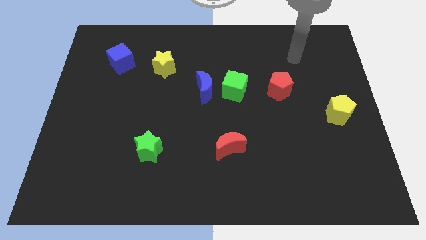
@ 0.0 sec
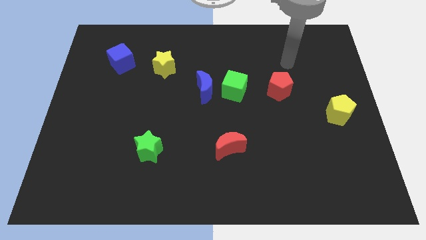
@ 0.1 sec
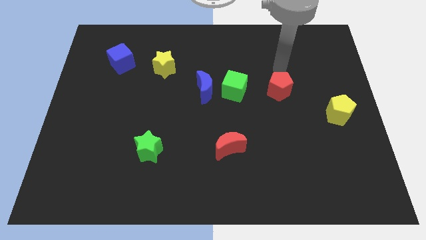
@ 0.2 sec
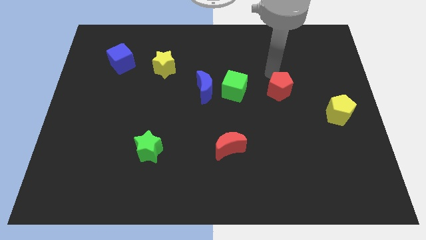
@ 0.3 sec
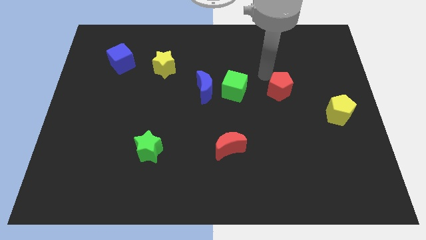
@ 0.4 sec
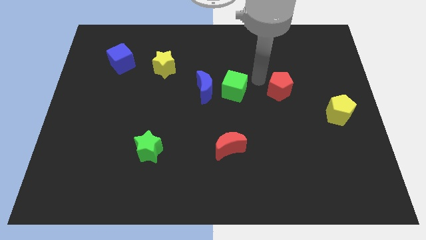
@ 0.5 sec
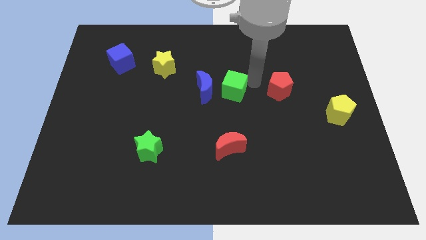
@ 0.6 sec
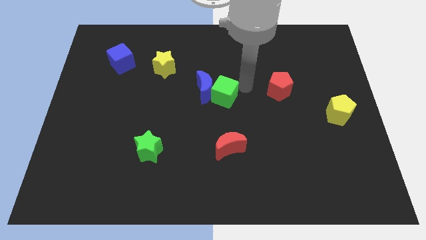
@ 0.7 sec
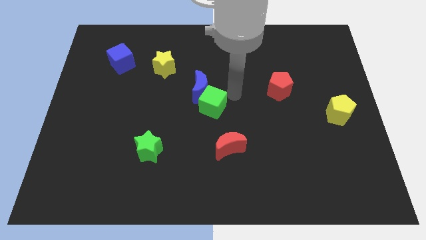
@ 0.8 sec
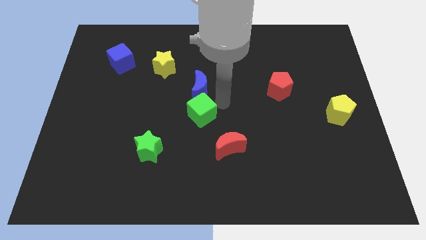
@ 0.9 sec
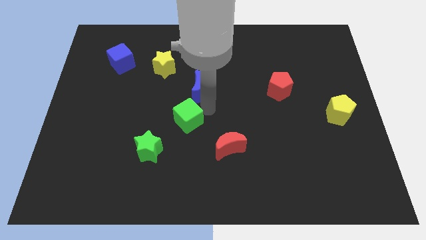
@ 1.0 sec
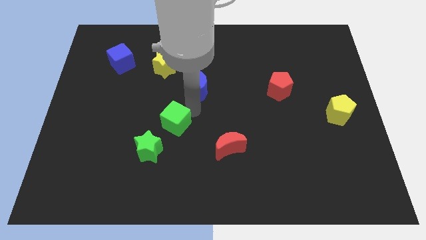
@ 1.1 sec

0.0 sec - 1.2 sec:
pull the blue moon apart from the green cube

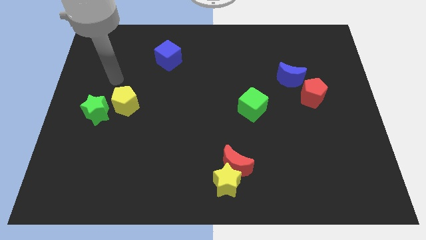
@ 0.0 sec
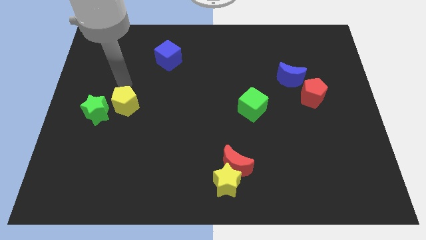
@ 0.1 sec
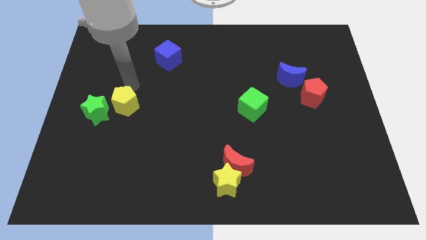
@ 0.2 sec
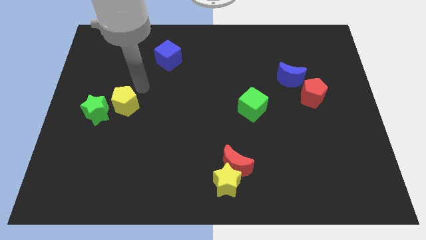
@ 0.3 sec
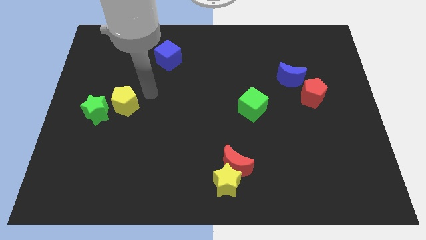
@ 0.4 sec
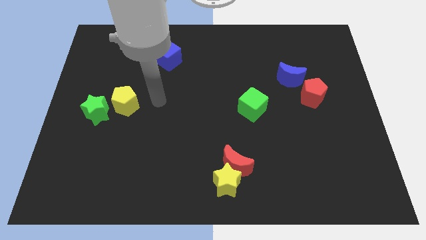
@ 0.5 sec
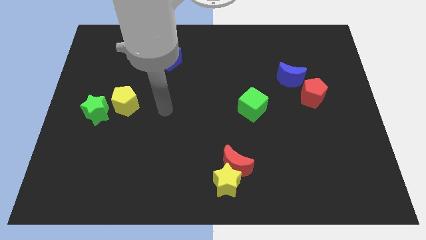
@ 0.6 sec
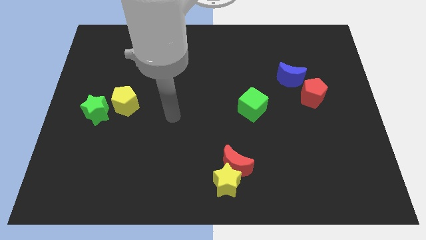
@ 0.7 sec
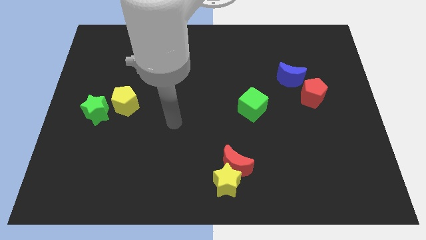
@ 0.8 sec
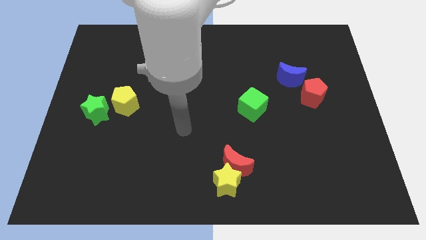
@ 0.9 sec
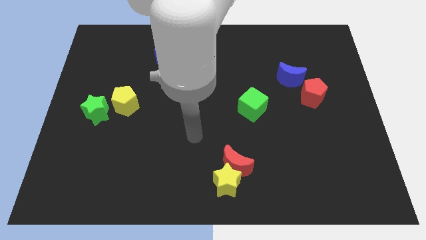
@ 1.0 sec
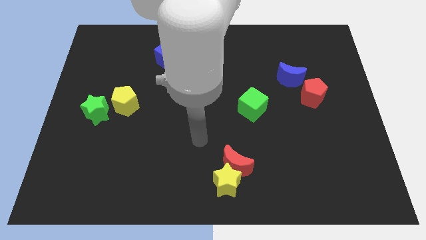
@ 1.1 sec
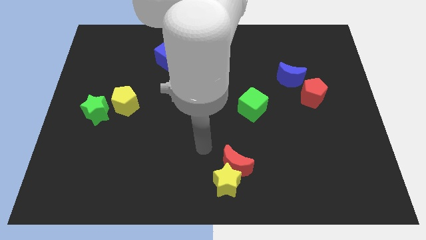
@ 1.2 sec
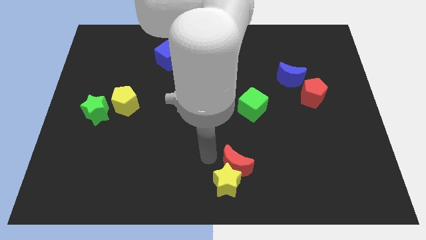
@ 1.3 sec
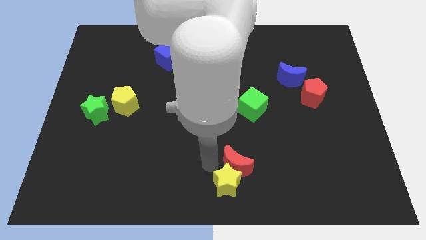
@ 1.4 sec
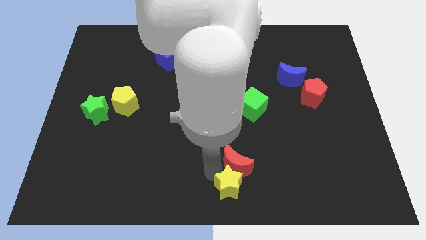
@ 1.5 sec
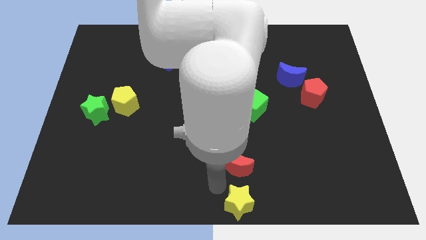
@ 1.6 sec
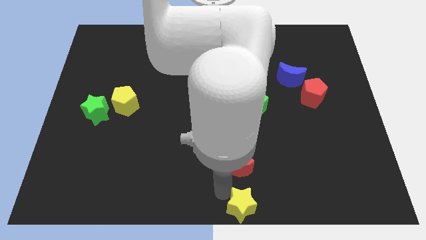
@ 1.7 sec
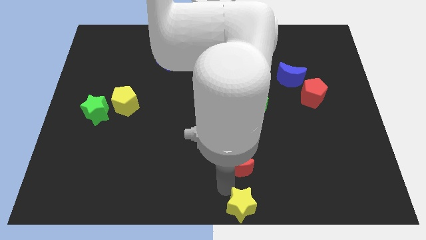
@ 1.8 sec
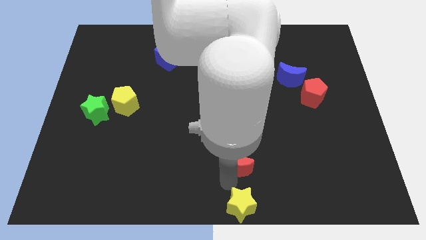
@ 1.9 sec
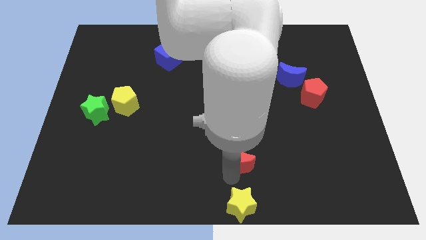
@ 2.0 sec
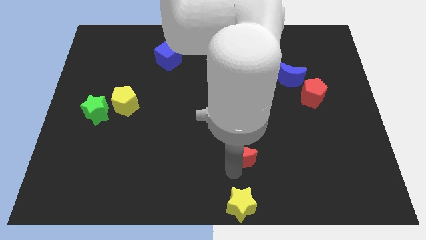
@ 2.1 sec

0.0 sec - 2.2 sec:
separate the red moon from the yellow star

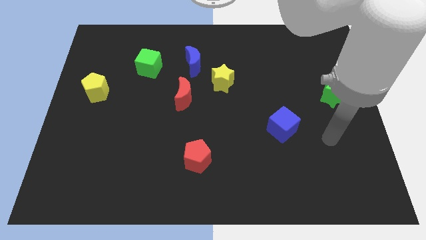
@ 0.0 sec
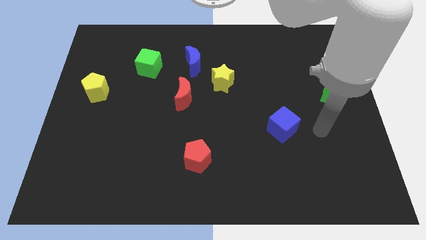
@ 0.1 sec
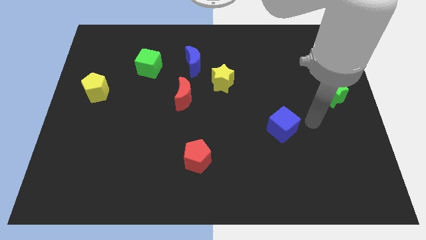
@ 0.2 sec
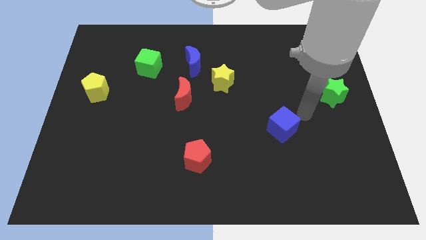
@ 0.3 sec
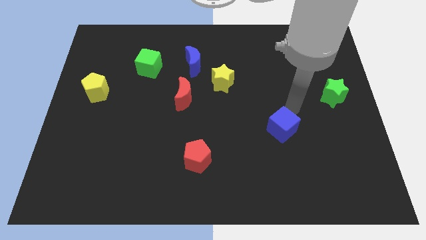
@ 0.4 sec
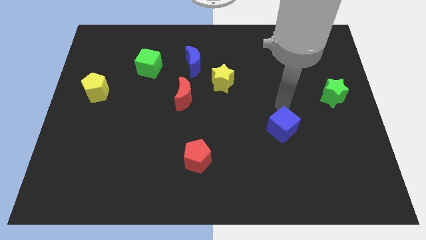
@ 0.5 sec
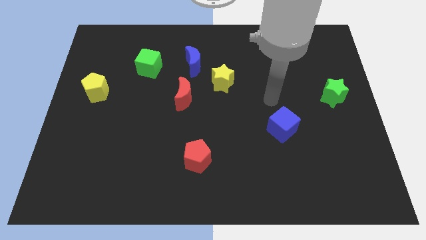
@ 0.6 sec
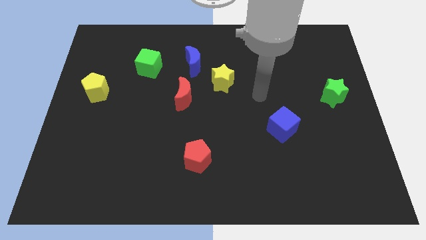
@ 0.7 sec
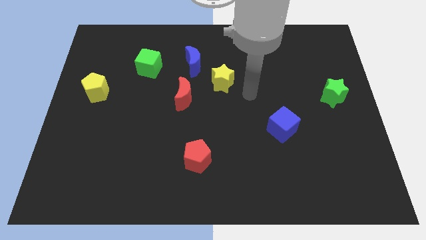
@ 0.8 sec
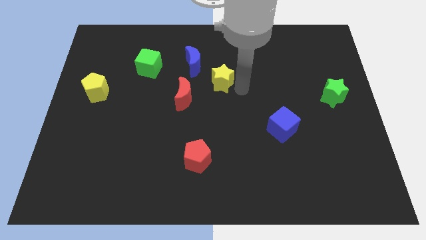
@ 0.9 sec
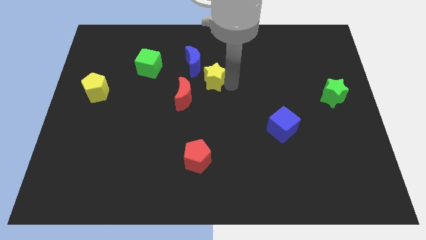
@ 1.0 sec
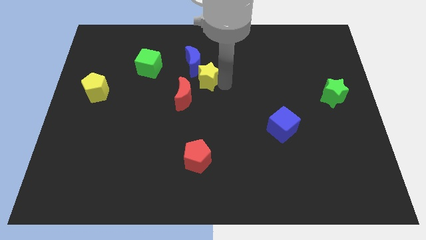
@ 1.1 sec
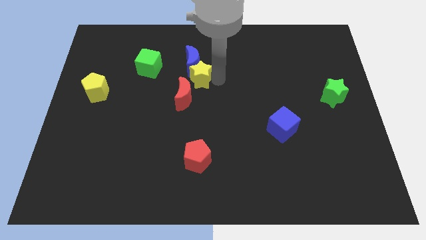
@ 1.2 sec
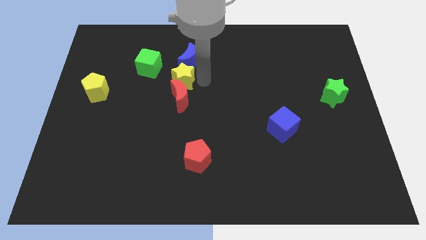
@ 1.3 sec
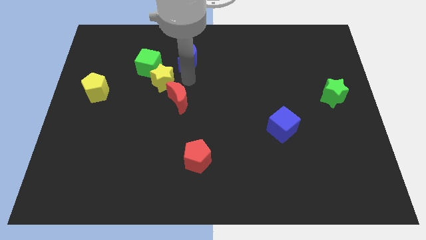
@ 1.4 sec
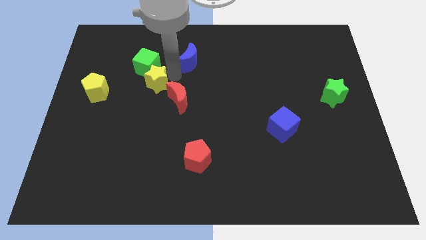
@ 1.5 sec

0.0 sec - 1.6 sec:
pull the blue moon apart from the yellow star

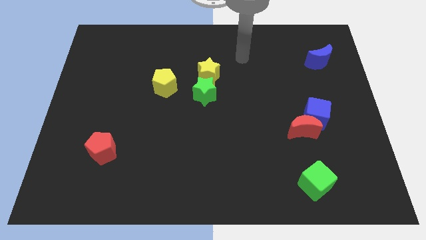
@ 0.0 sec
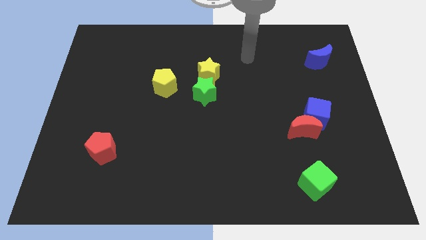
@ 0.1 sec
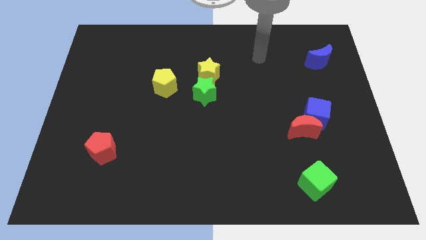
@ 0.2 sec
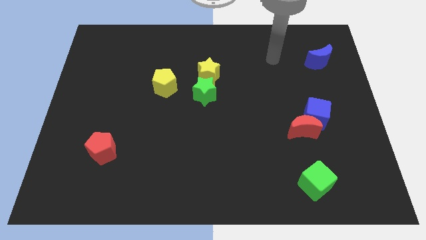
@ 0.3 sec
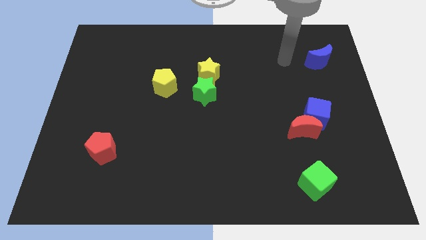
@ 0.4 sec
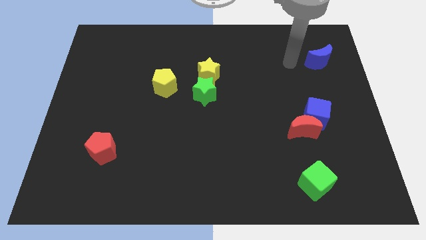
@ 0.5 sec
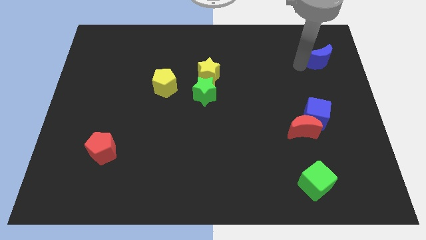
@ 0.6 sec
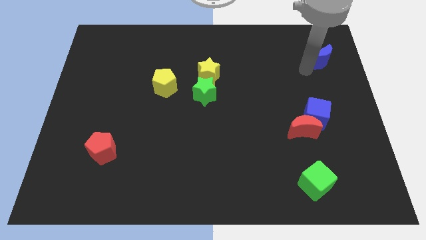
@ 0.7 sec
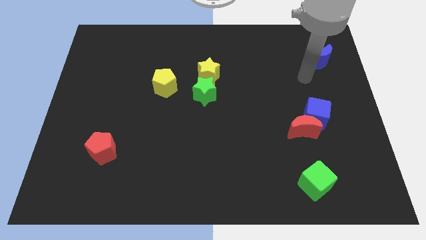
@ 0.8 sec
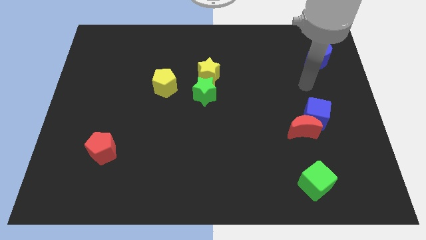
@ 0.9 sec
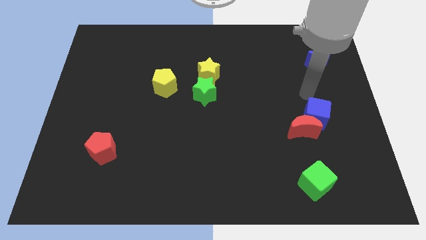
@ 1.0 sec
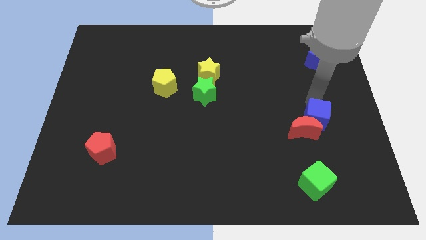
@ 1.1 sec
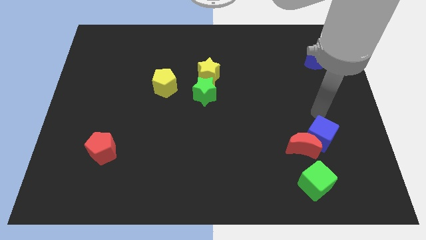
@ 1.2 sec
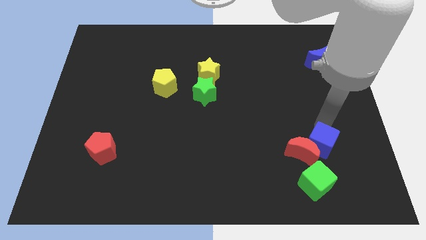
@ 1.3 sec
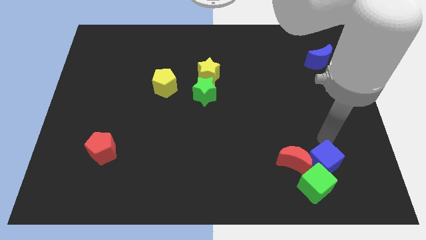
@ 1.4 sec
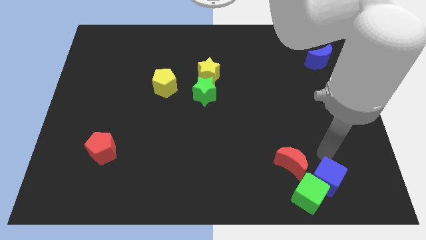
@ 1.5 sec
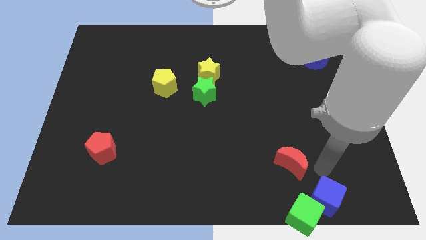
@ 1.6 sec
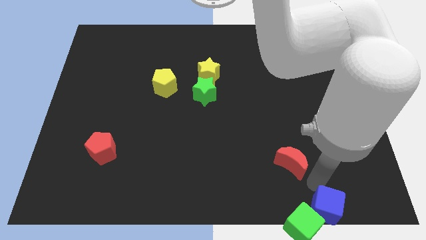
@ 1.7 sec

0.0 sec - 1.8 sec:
pull the red moon apart from the blue cube

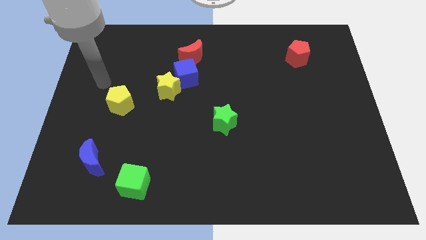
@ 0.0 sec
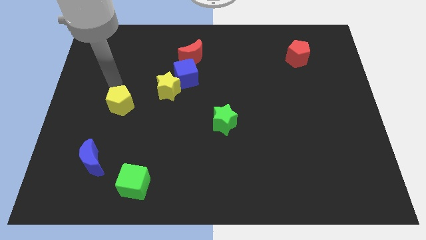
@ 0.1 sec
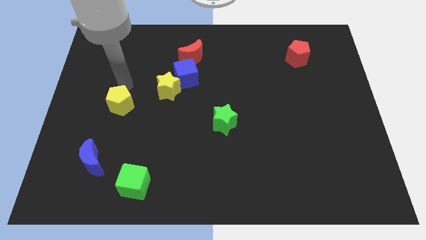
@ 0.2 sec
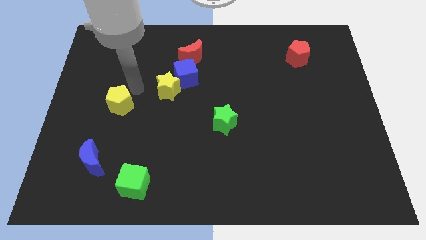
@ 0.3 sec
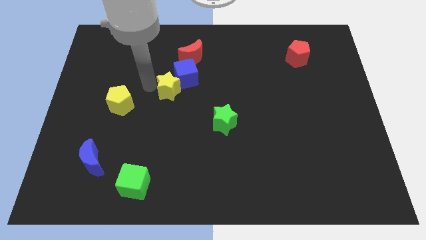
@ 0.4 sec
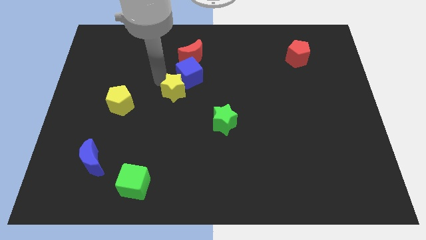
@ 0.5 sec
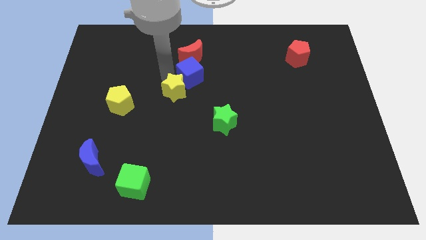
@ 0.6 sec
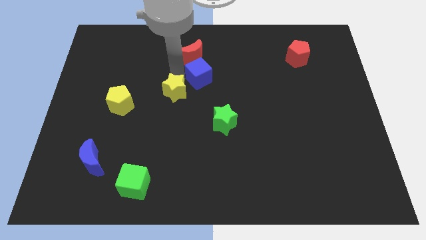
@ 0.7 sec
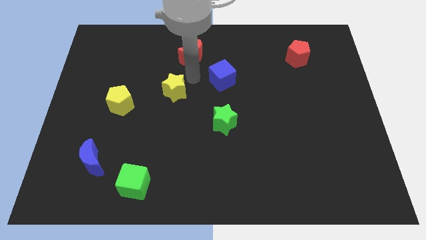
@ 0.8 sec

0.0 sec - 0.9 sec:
pull the yellow star apart from the blue cube

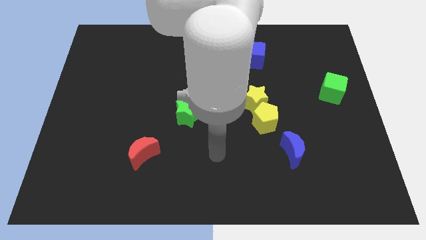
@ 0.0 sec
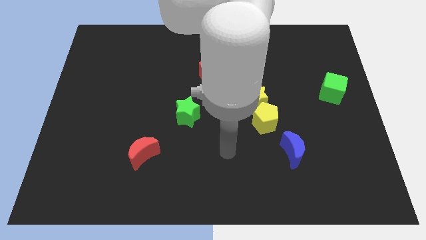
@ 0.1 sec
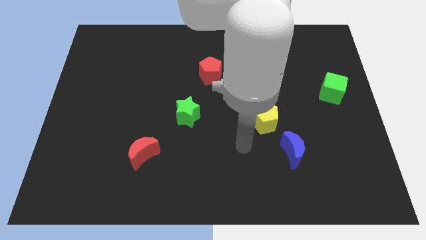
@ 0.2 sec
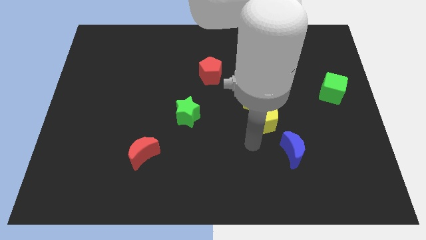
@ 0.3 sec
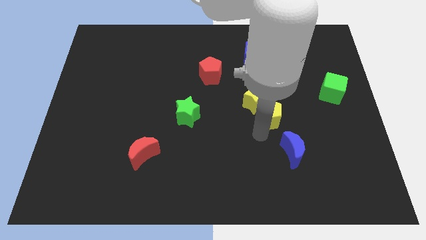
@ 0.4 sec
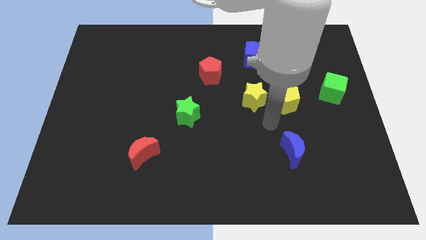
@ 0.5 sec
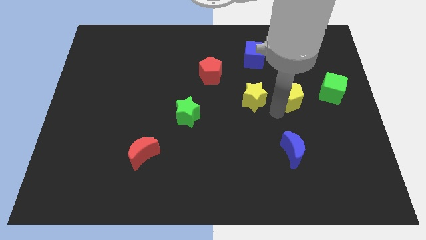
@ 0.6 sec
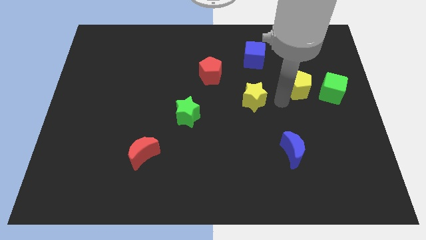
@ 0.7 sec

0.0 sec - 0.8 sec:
separate the yellow star from the yellow pentagon

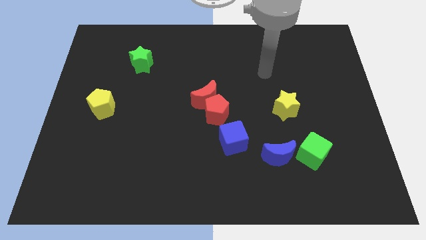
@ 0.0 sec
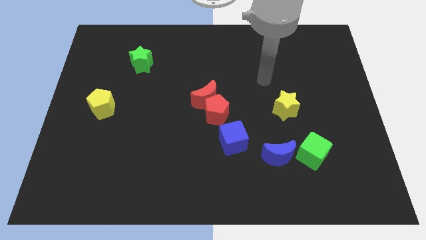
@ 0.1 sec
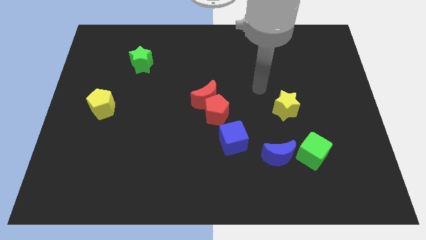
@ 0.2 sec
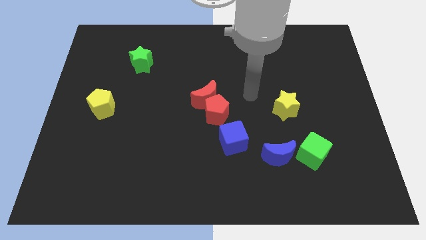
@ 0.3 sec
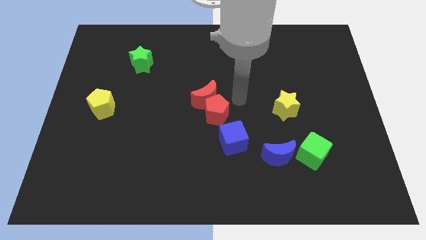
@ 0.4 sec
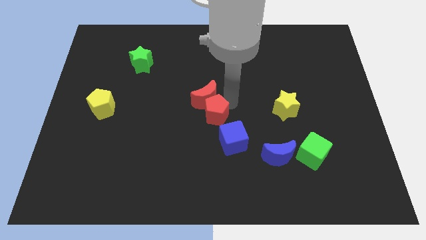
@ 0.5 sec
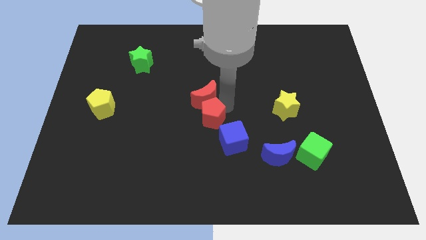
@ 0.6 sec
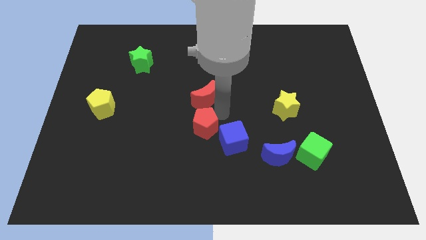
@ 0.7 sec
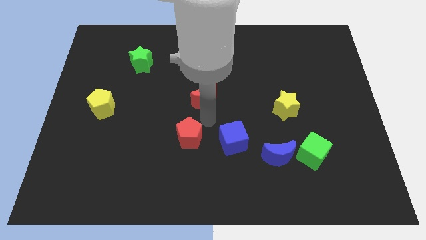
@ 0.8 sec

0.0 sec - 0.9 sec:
pull the red moon apart from the red pentagon
